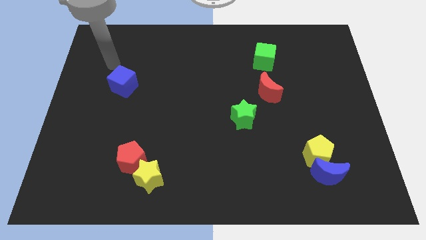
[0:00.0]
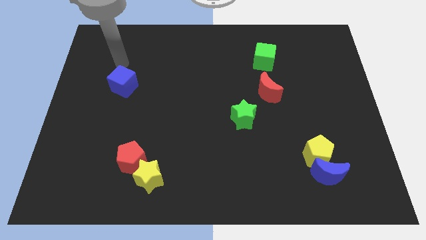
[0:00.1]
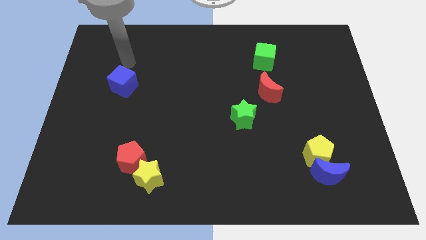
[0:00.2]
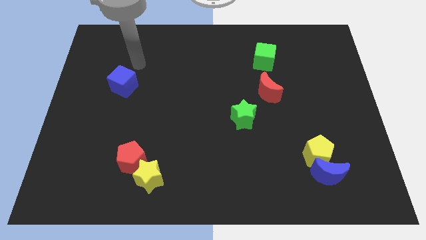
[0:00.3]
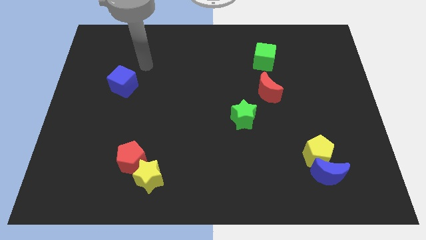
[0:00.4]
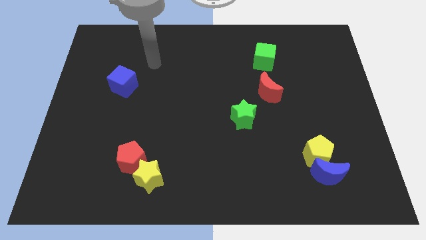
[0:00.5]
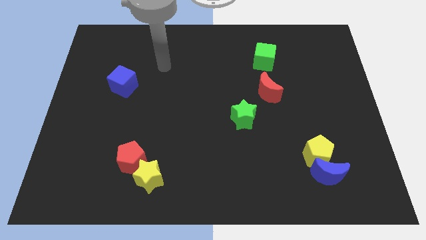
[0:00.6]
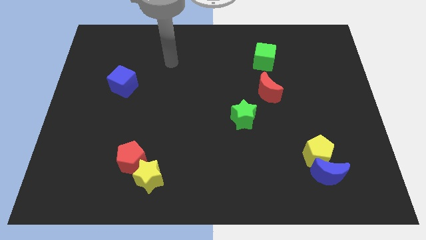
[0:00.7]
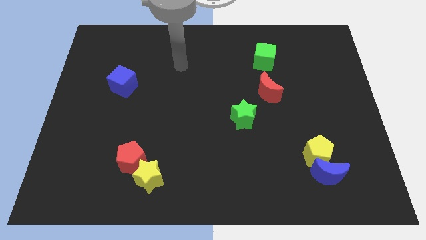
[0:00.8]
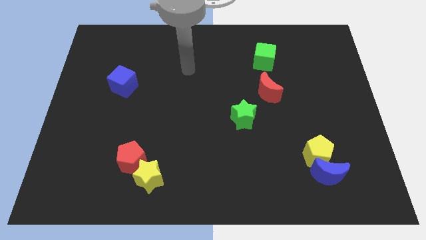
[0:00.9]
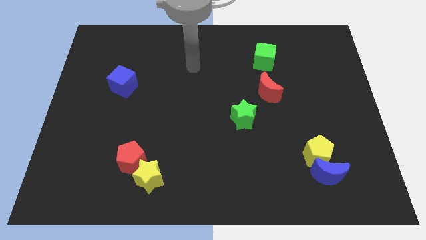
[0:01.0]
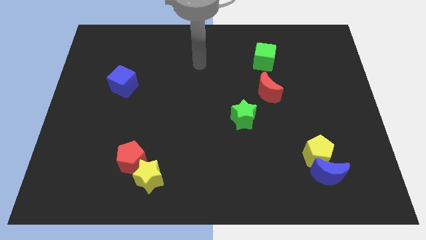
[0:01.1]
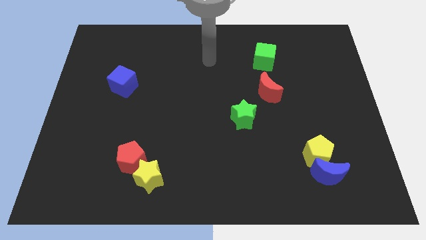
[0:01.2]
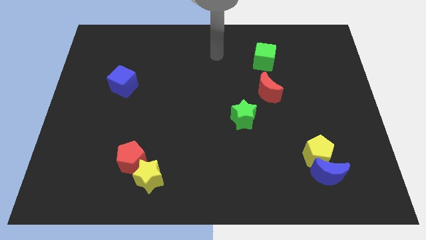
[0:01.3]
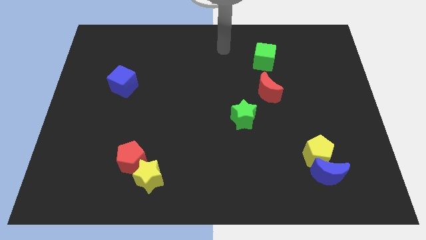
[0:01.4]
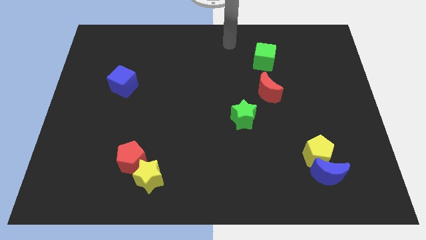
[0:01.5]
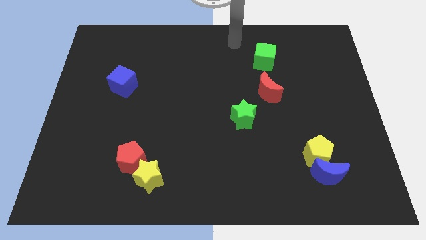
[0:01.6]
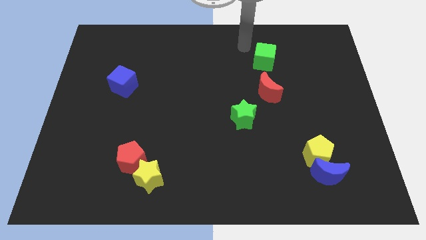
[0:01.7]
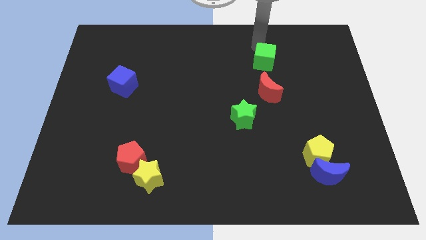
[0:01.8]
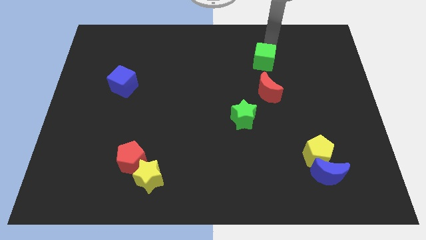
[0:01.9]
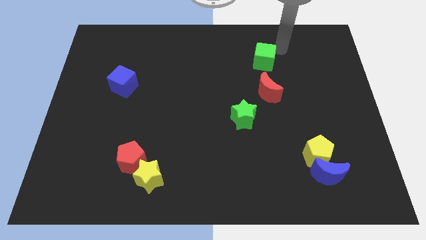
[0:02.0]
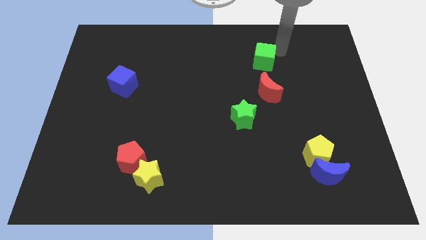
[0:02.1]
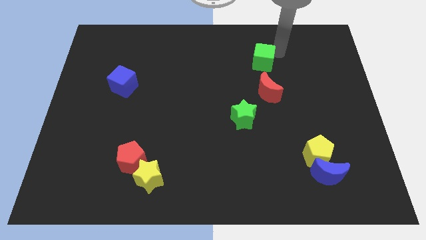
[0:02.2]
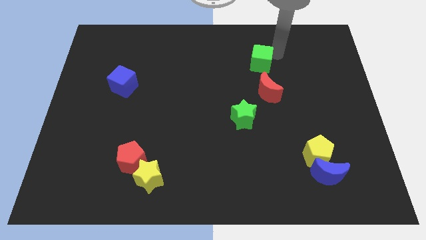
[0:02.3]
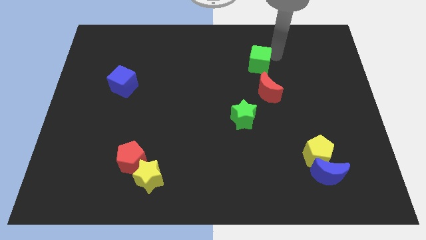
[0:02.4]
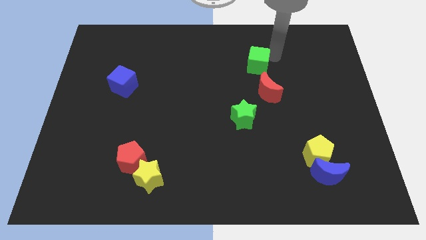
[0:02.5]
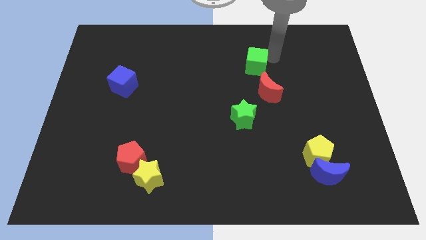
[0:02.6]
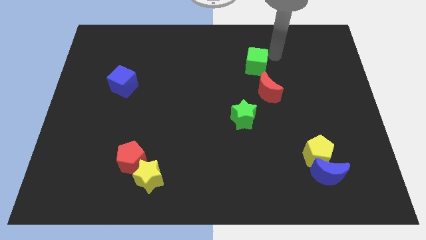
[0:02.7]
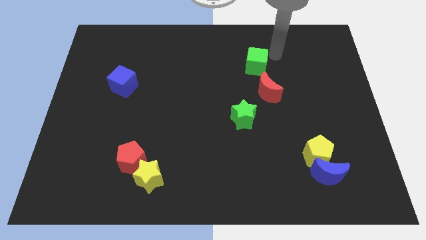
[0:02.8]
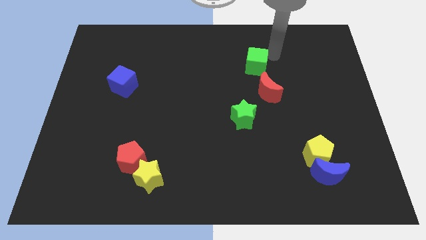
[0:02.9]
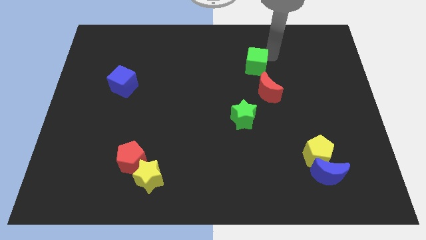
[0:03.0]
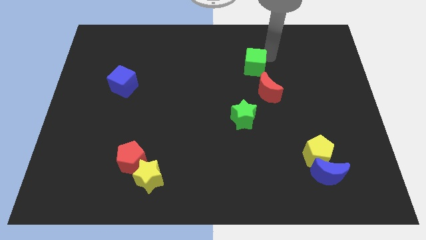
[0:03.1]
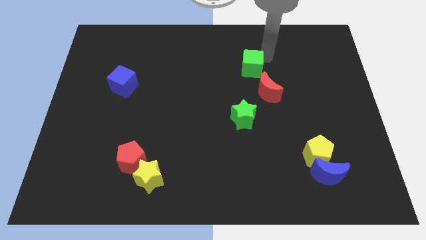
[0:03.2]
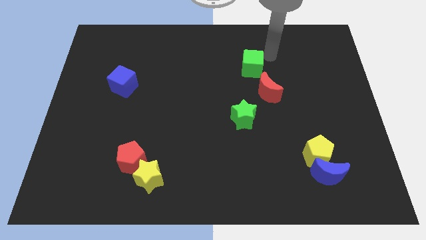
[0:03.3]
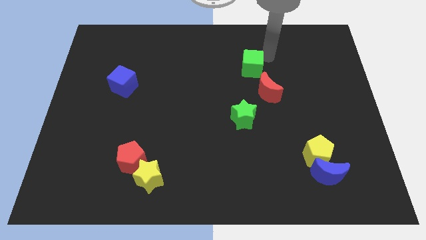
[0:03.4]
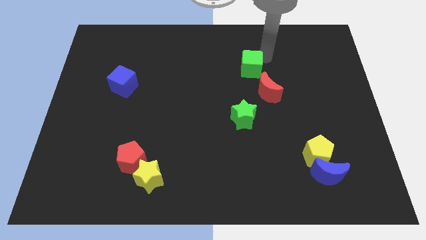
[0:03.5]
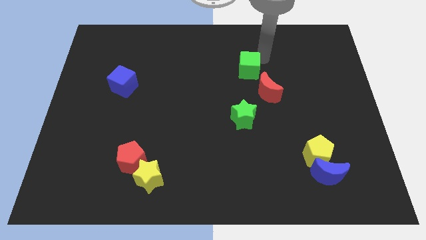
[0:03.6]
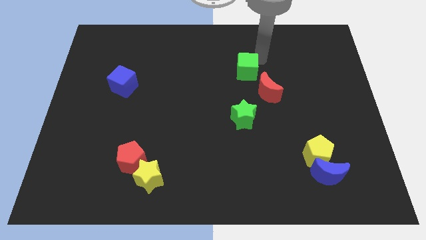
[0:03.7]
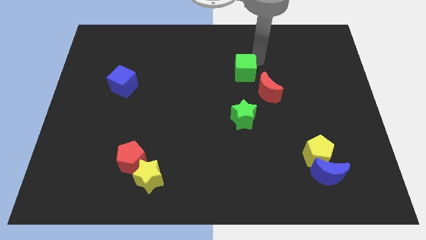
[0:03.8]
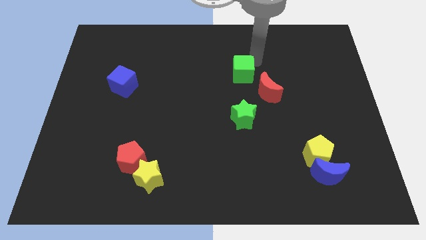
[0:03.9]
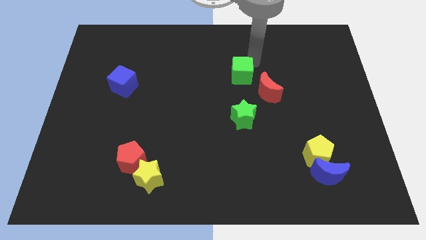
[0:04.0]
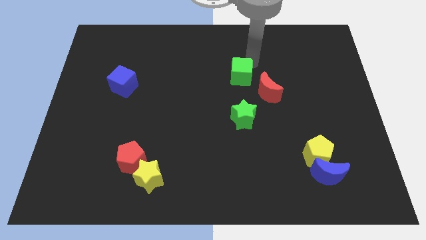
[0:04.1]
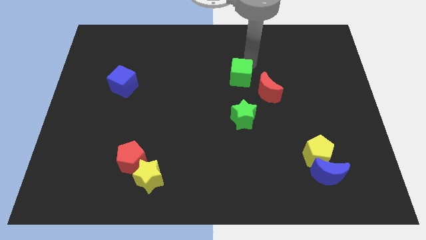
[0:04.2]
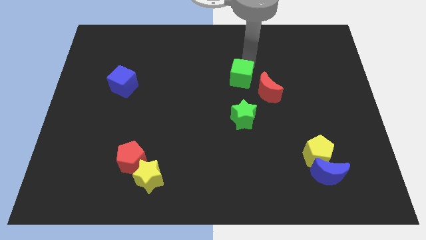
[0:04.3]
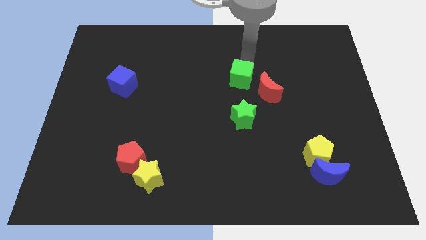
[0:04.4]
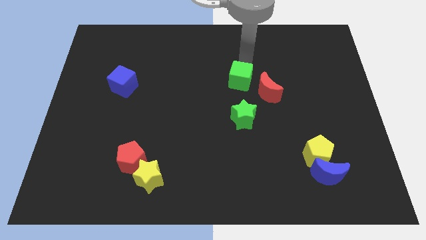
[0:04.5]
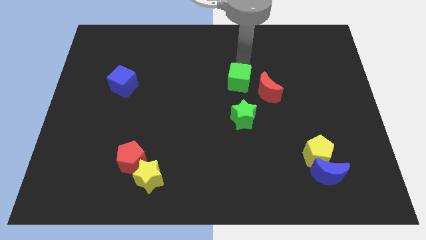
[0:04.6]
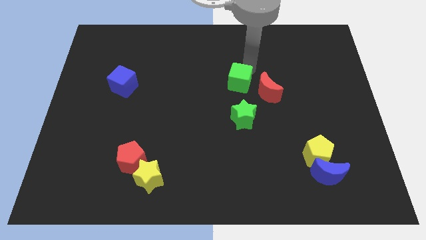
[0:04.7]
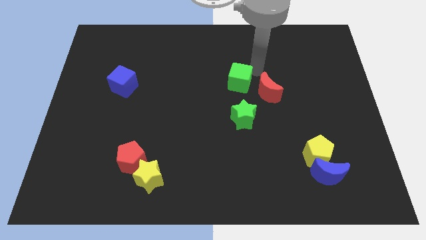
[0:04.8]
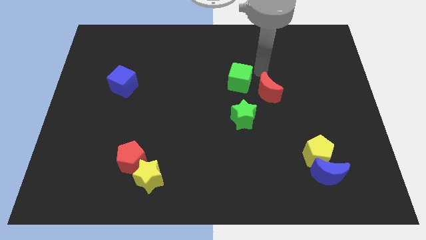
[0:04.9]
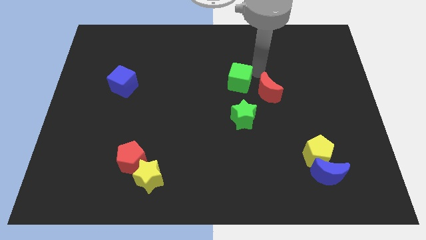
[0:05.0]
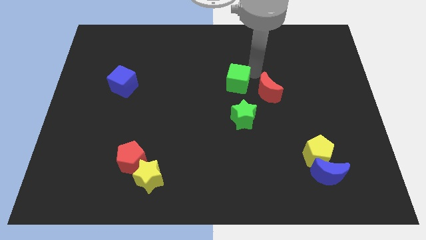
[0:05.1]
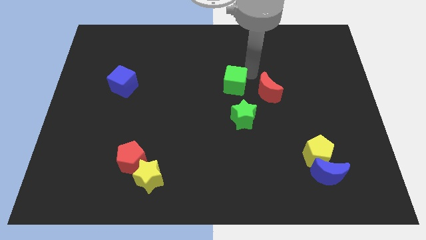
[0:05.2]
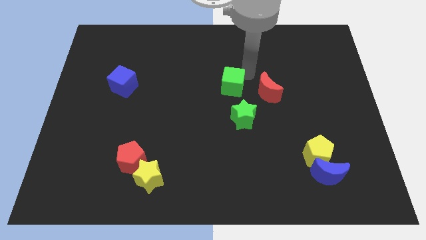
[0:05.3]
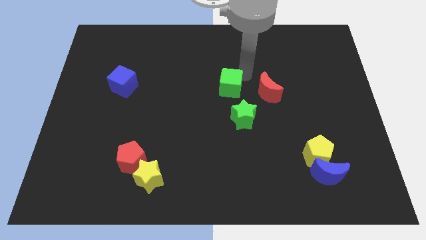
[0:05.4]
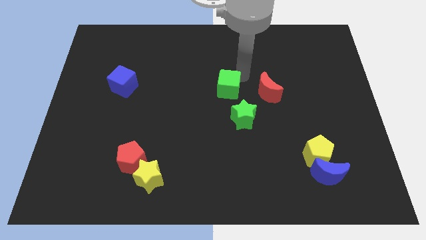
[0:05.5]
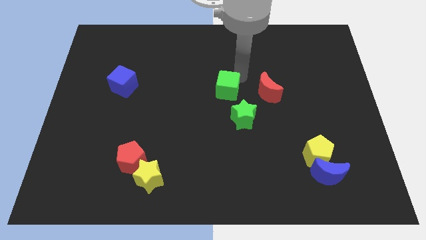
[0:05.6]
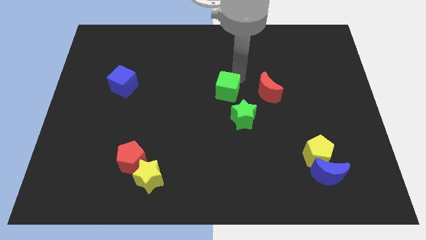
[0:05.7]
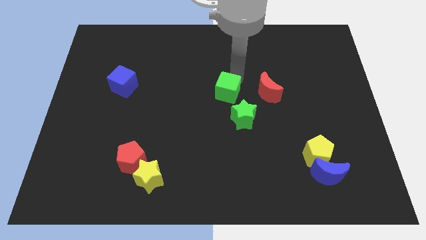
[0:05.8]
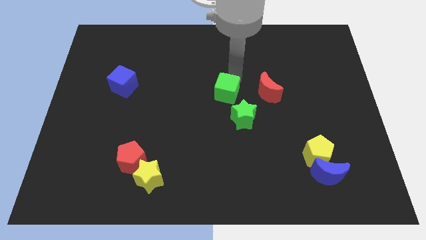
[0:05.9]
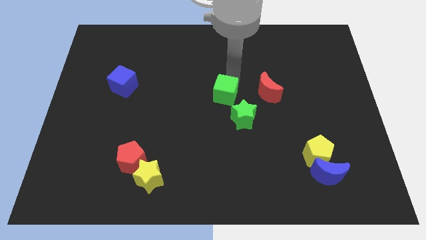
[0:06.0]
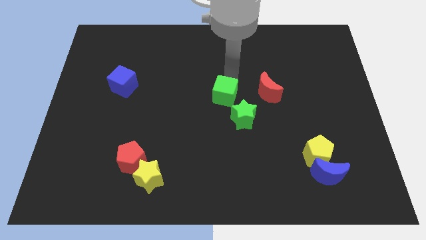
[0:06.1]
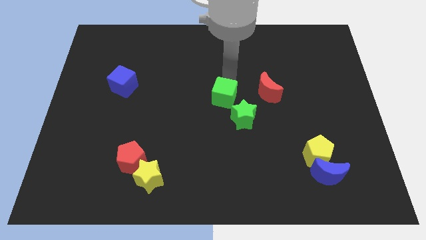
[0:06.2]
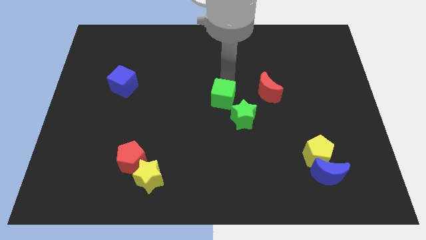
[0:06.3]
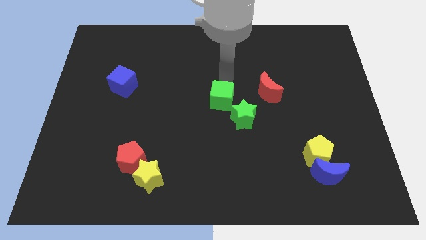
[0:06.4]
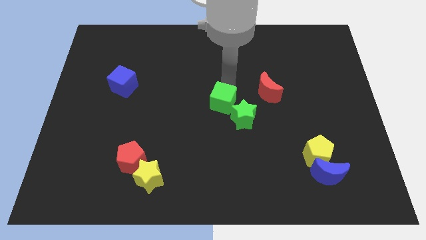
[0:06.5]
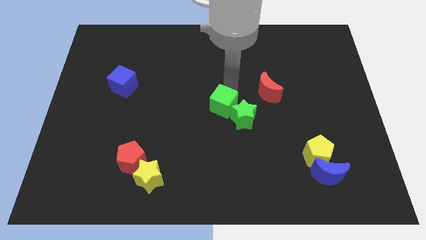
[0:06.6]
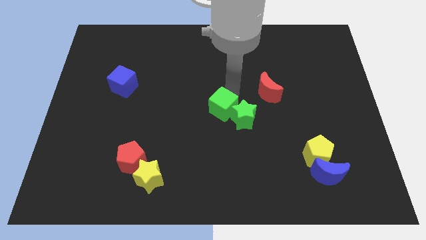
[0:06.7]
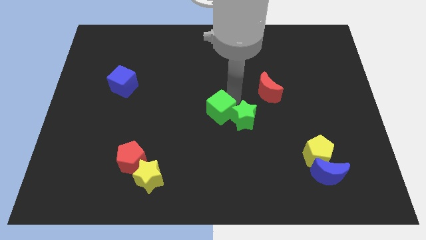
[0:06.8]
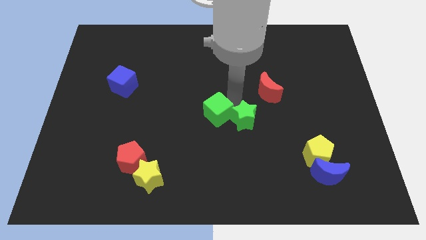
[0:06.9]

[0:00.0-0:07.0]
push the green cube downwards and then to the left

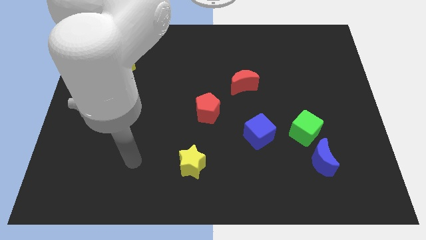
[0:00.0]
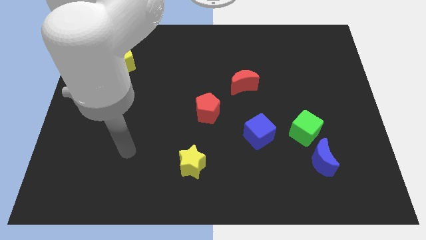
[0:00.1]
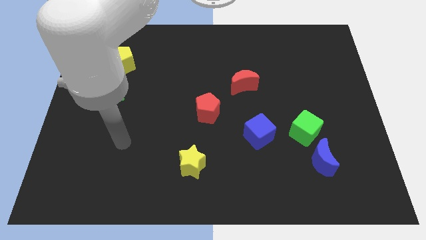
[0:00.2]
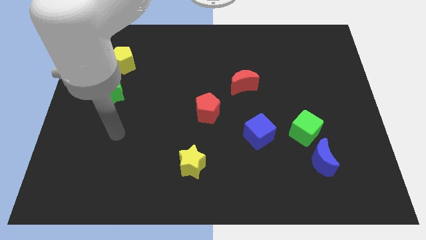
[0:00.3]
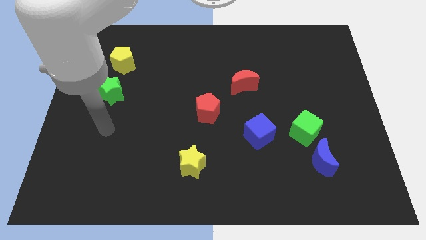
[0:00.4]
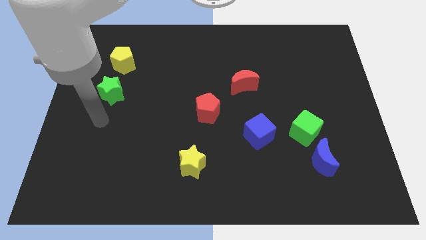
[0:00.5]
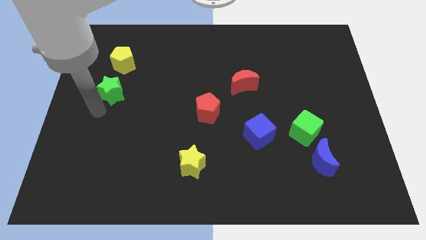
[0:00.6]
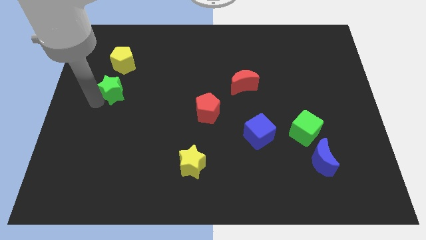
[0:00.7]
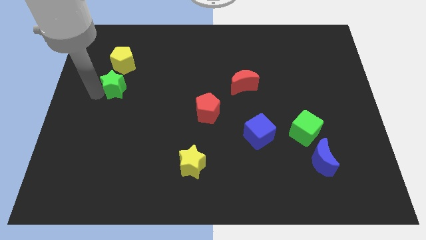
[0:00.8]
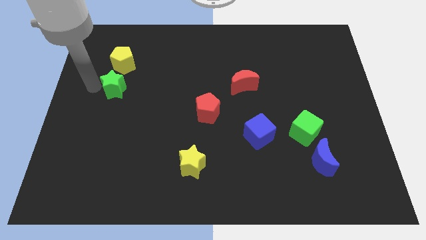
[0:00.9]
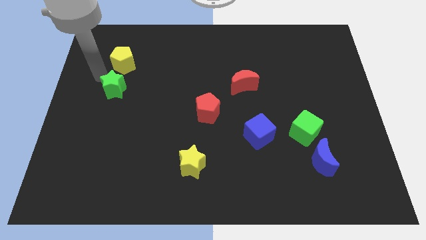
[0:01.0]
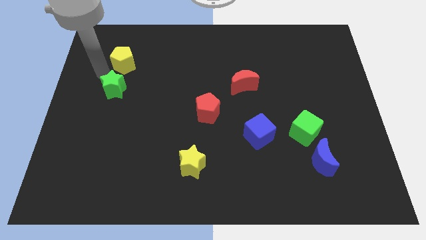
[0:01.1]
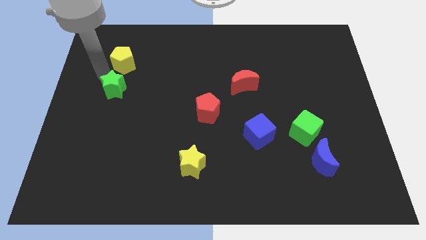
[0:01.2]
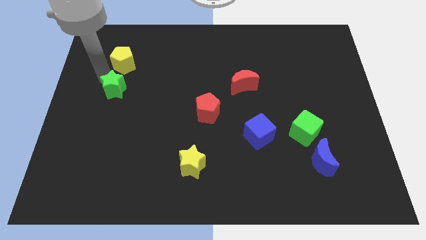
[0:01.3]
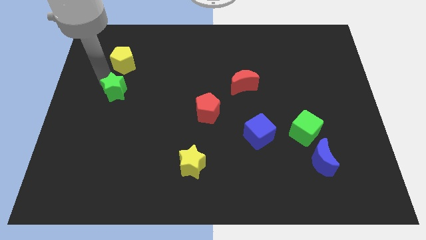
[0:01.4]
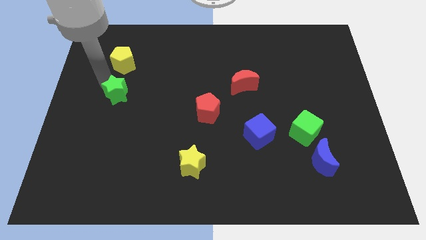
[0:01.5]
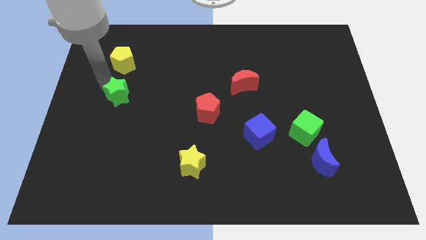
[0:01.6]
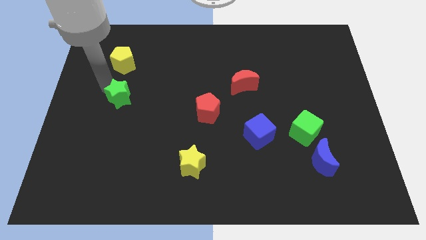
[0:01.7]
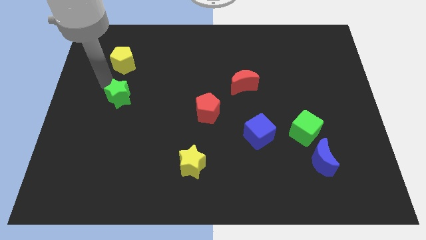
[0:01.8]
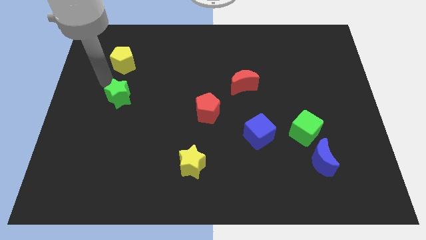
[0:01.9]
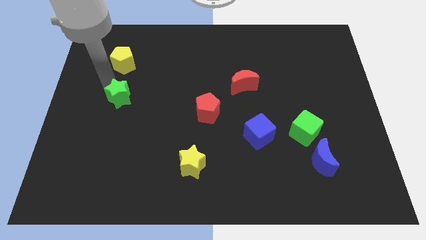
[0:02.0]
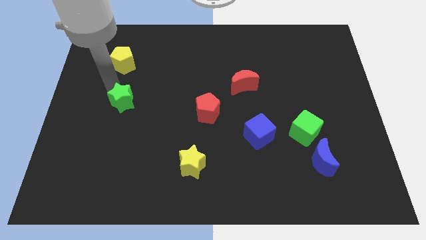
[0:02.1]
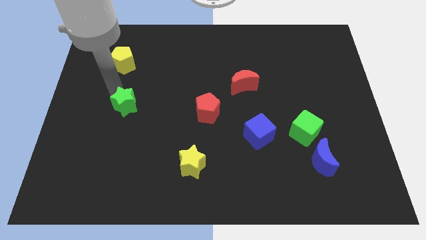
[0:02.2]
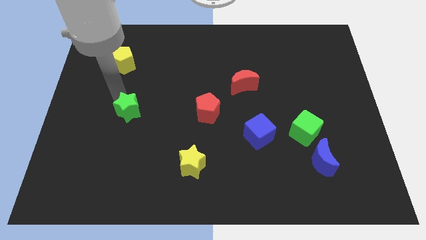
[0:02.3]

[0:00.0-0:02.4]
move the green star a little down and then to the right
